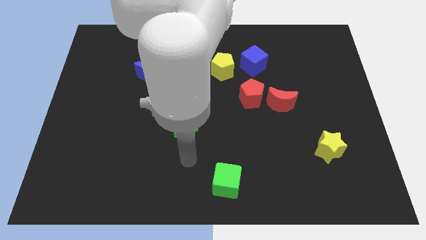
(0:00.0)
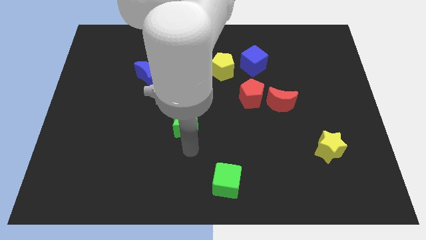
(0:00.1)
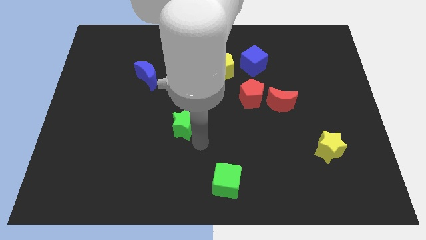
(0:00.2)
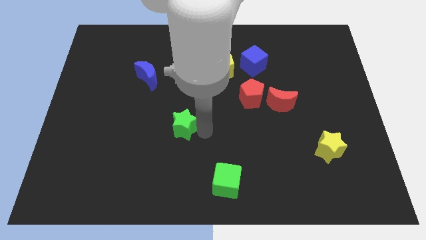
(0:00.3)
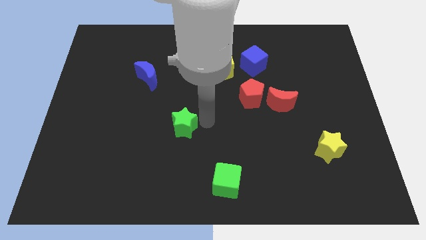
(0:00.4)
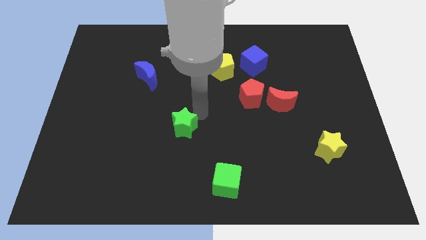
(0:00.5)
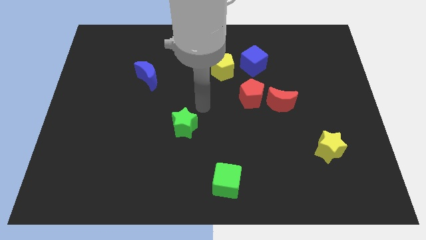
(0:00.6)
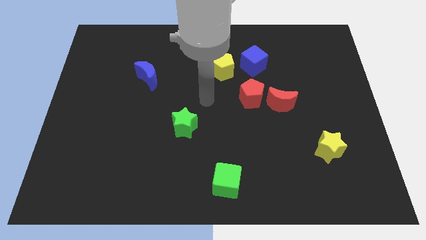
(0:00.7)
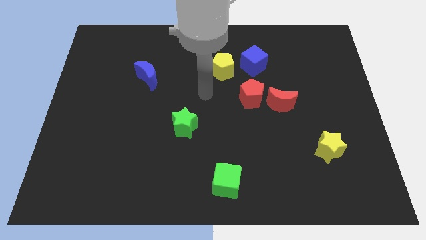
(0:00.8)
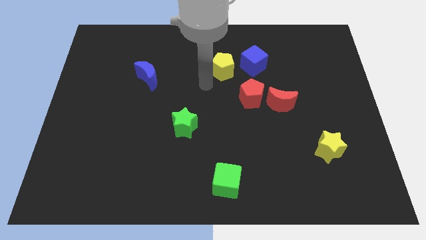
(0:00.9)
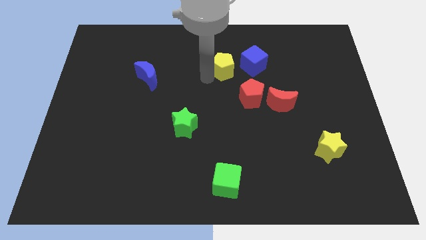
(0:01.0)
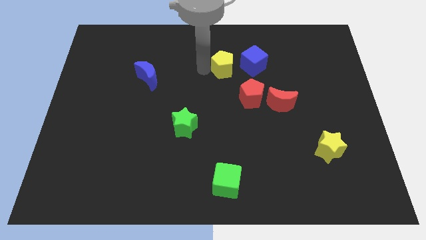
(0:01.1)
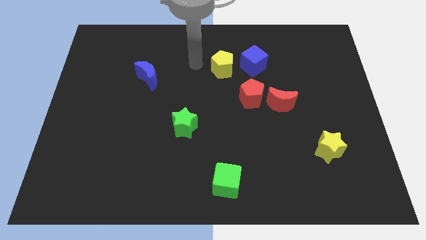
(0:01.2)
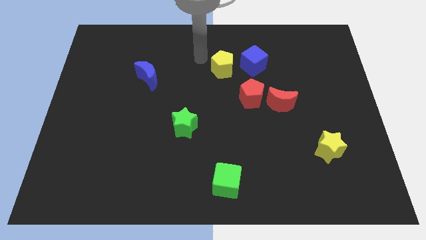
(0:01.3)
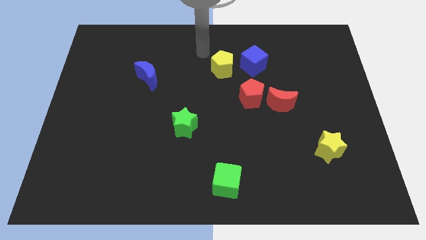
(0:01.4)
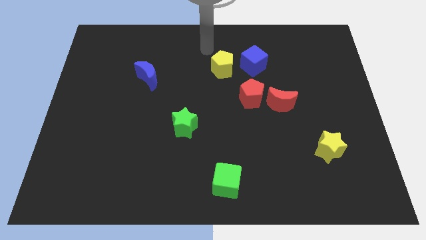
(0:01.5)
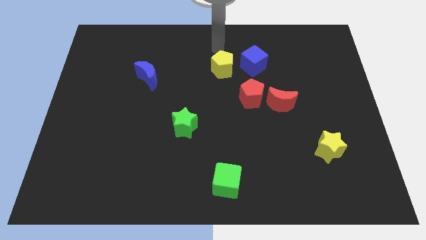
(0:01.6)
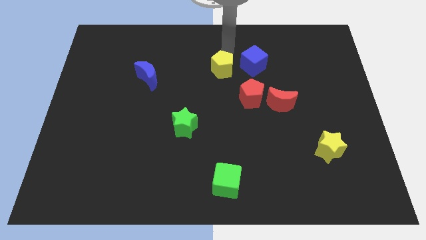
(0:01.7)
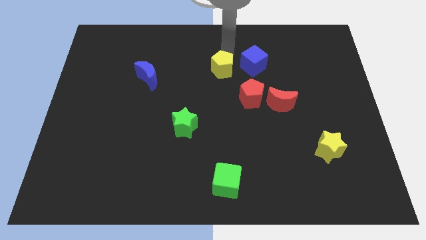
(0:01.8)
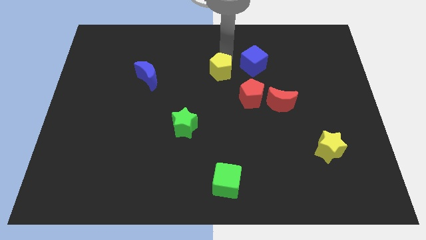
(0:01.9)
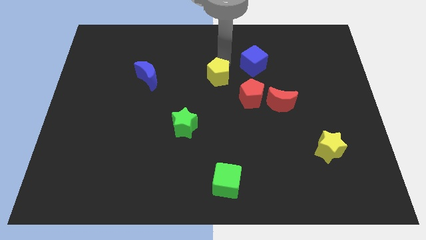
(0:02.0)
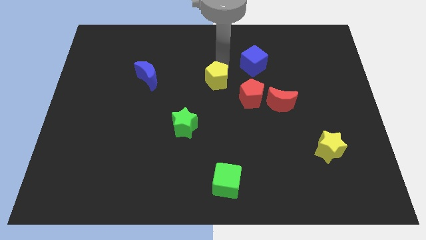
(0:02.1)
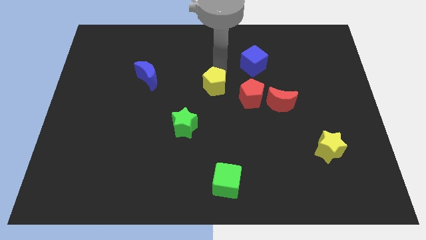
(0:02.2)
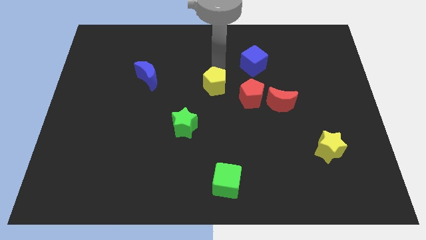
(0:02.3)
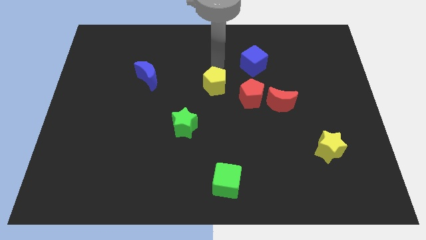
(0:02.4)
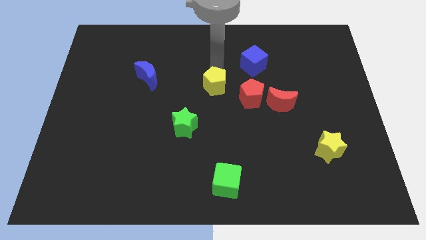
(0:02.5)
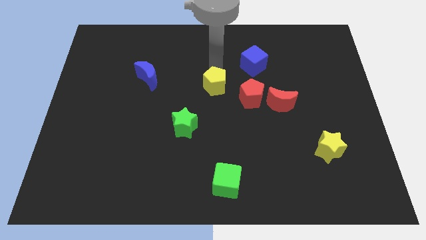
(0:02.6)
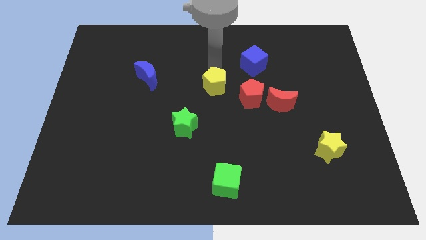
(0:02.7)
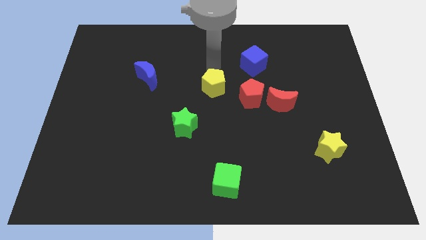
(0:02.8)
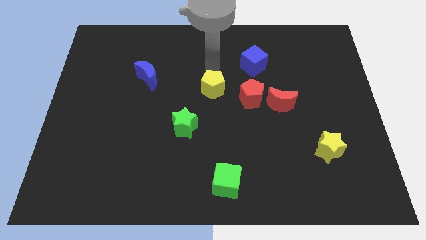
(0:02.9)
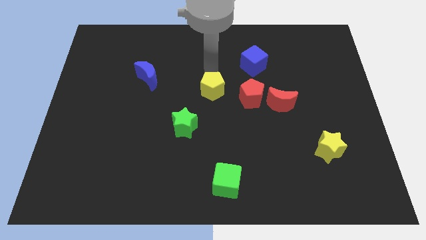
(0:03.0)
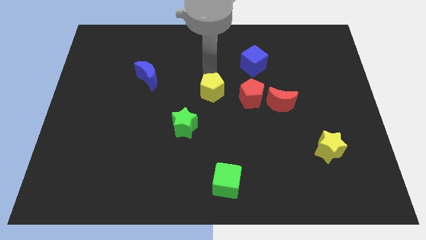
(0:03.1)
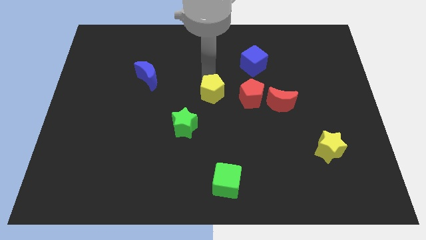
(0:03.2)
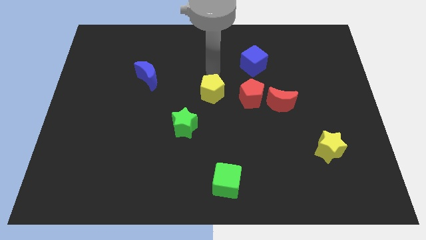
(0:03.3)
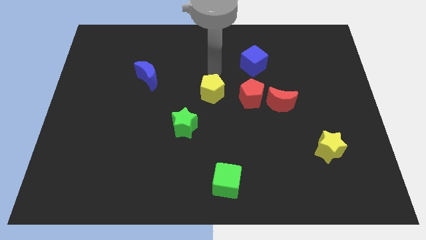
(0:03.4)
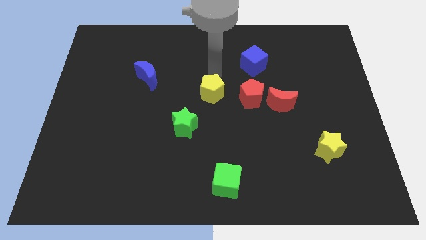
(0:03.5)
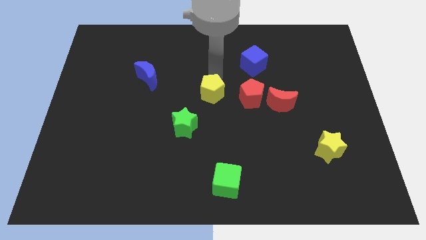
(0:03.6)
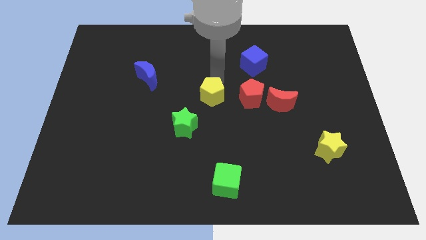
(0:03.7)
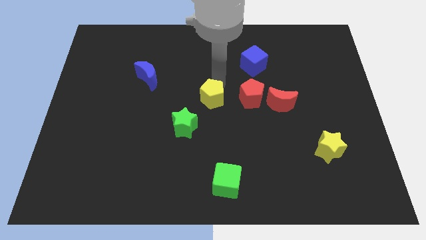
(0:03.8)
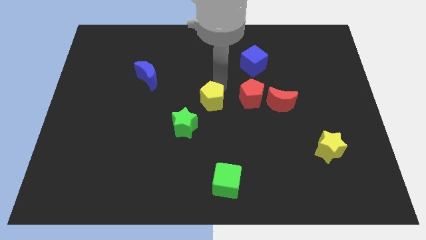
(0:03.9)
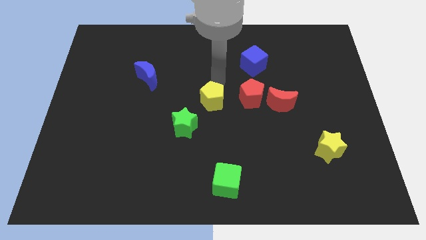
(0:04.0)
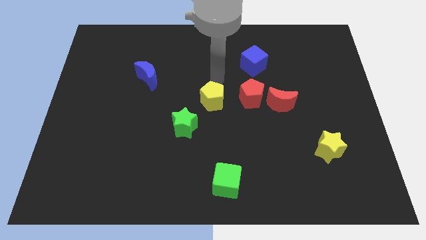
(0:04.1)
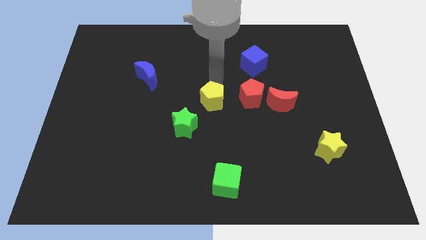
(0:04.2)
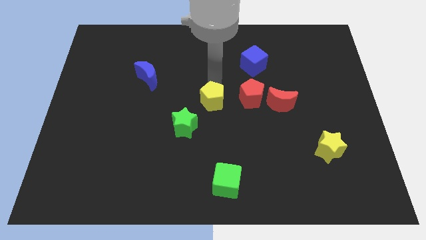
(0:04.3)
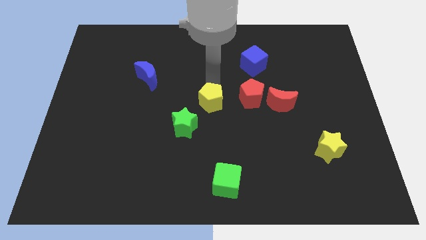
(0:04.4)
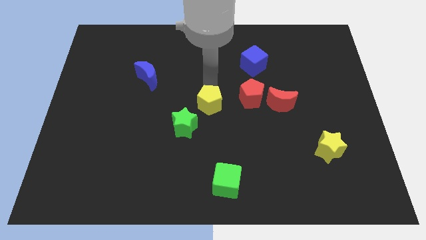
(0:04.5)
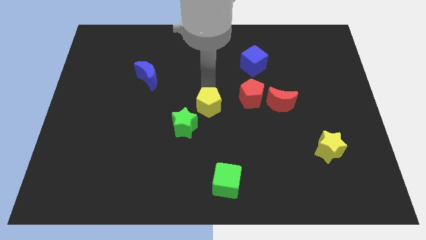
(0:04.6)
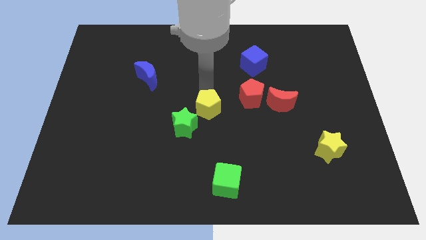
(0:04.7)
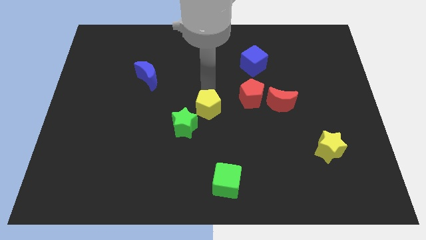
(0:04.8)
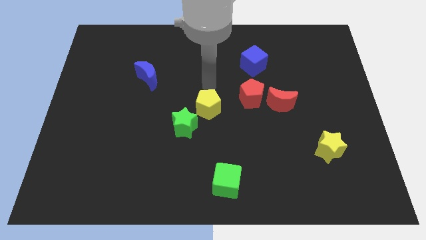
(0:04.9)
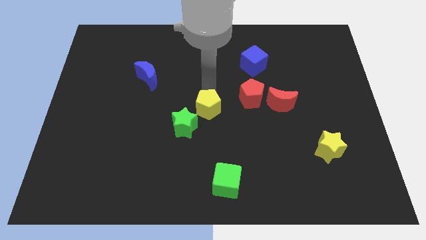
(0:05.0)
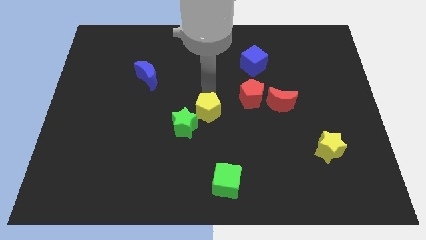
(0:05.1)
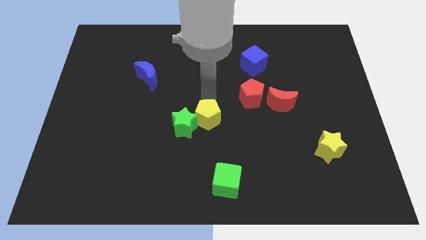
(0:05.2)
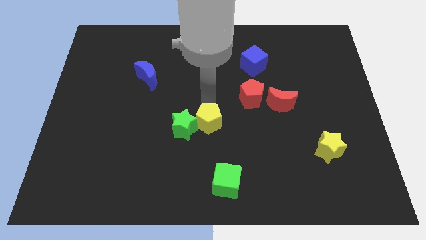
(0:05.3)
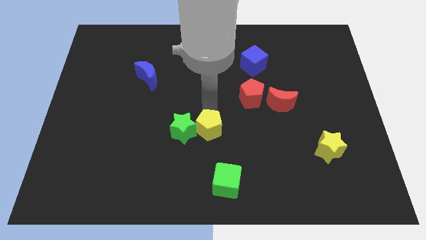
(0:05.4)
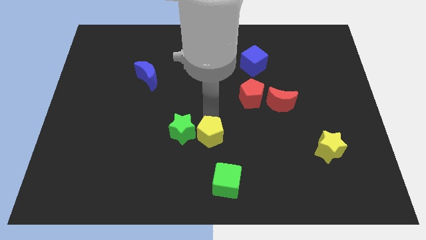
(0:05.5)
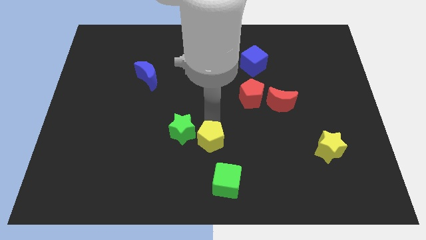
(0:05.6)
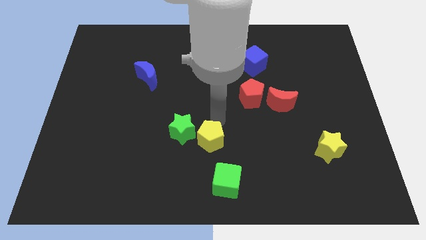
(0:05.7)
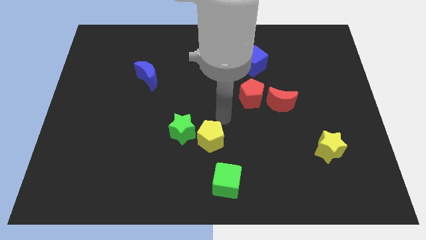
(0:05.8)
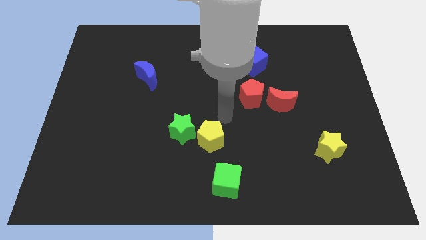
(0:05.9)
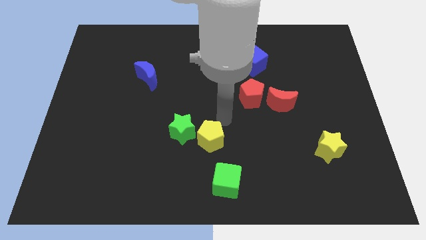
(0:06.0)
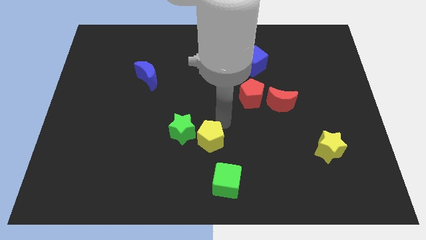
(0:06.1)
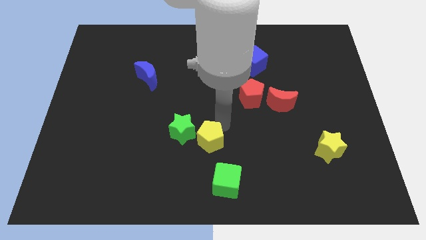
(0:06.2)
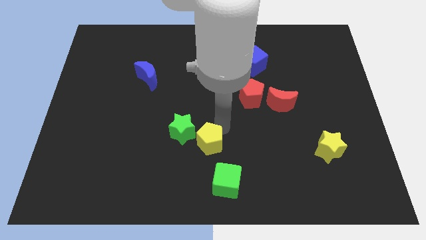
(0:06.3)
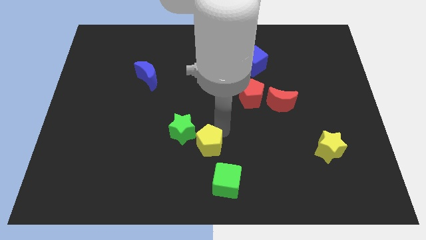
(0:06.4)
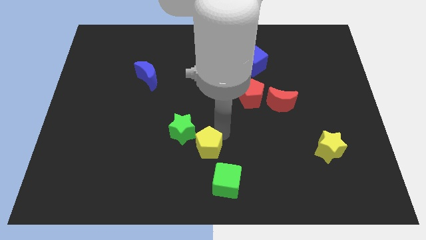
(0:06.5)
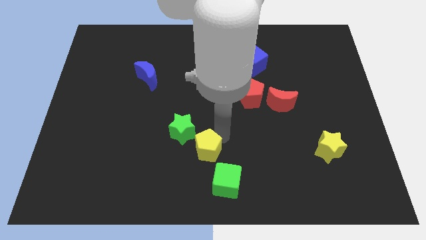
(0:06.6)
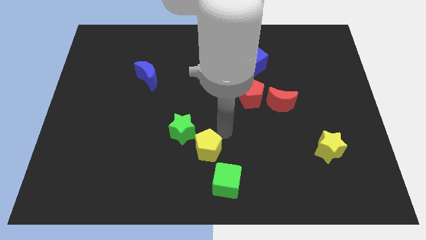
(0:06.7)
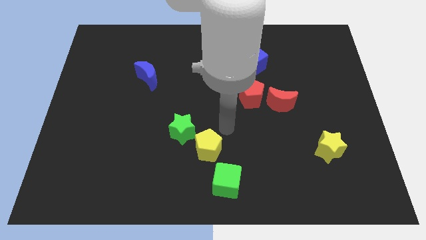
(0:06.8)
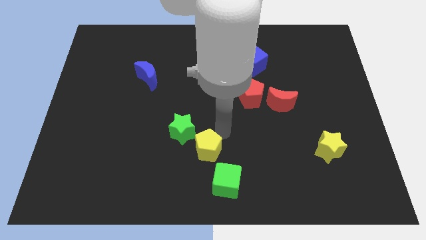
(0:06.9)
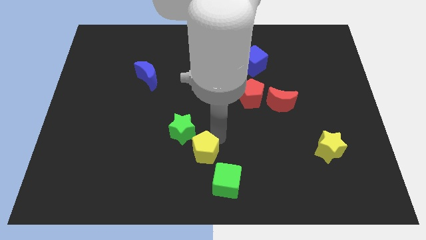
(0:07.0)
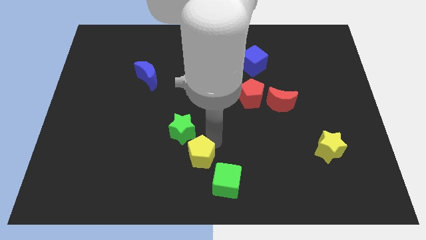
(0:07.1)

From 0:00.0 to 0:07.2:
put the yellow pentagon to the bottom
